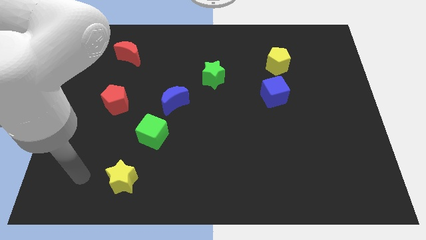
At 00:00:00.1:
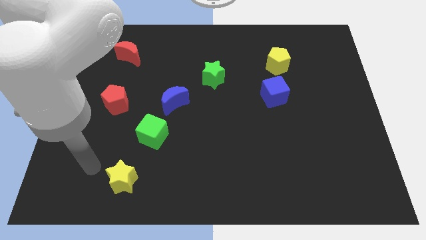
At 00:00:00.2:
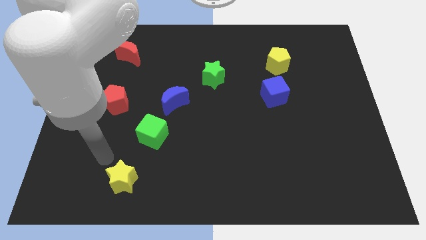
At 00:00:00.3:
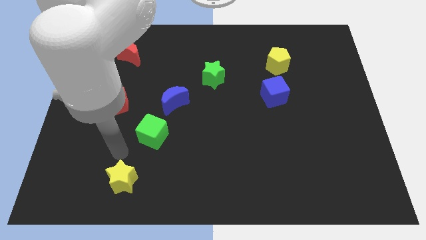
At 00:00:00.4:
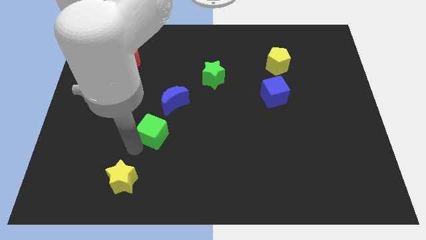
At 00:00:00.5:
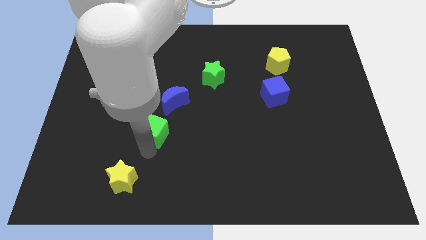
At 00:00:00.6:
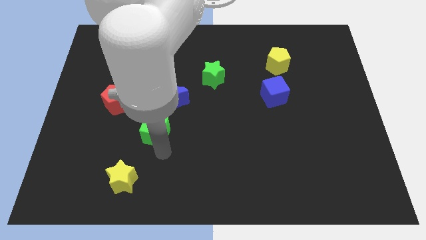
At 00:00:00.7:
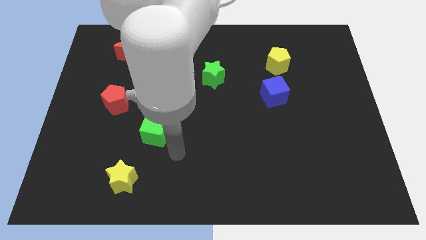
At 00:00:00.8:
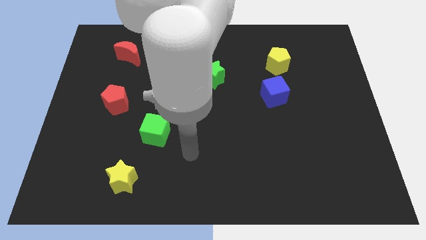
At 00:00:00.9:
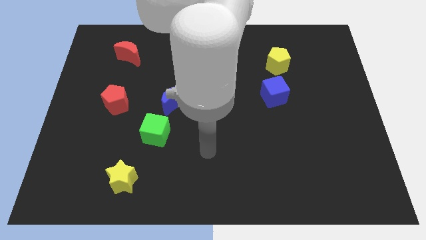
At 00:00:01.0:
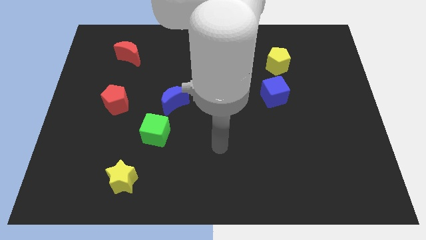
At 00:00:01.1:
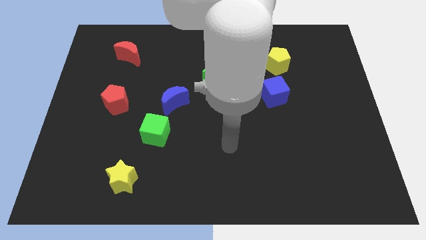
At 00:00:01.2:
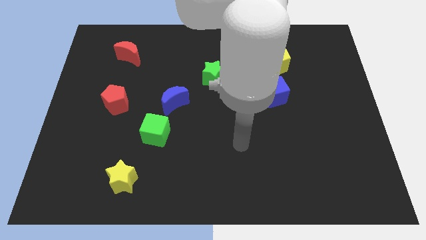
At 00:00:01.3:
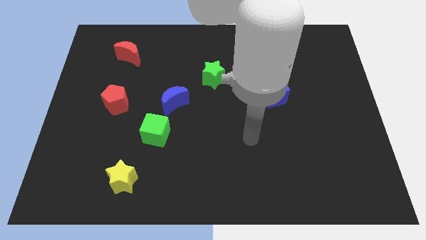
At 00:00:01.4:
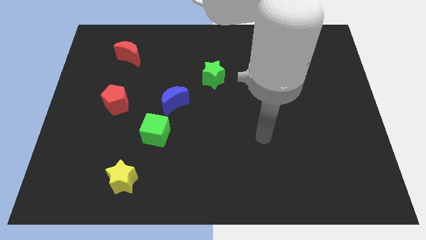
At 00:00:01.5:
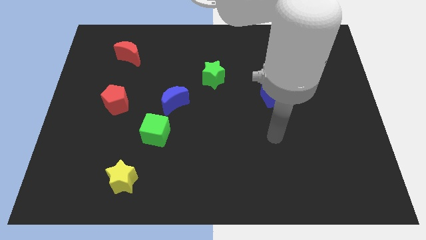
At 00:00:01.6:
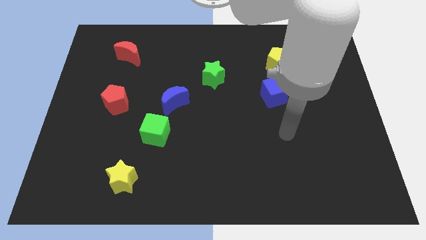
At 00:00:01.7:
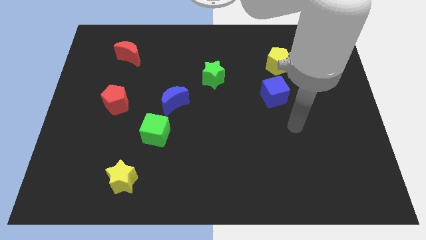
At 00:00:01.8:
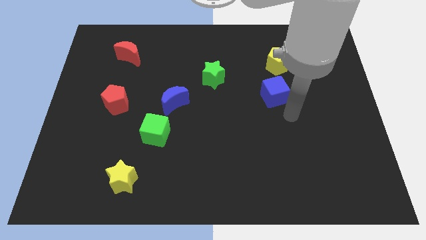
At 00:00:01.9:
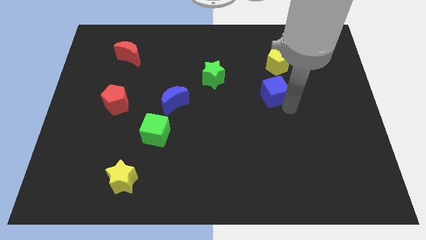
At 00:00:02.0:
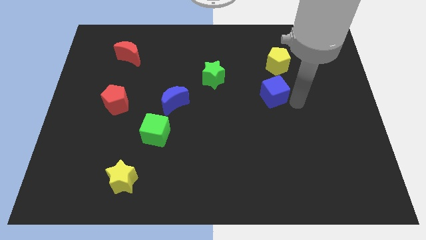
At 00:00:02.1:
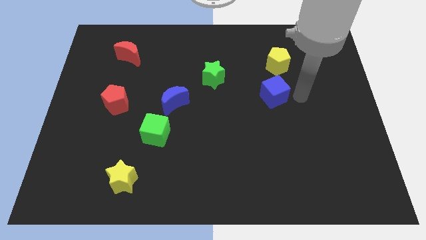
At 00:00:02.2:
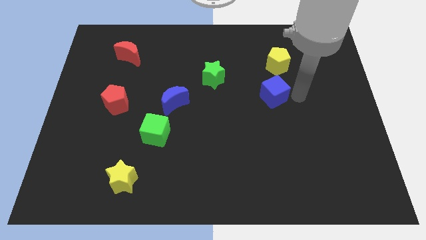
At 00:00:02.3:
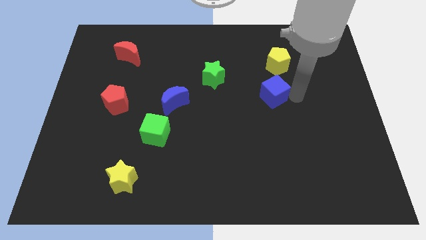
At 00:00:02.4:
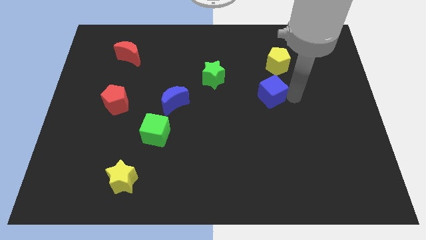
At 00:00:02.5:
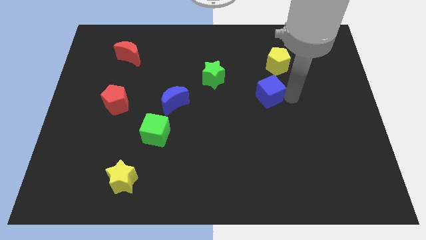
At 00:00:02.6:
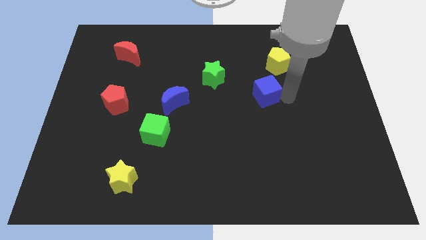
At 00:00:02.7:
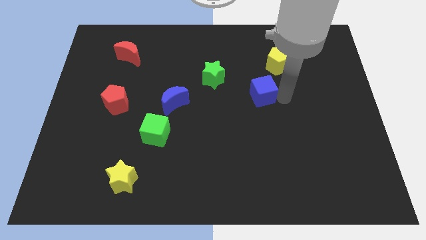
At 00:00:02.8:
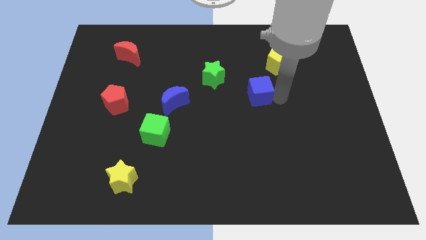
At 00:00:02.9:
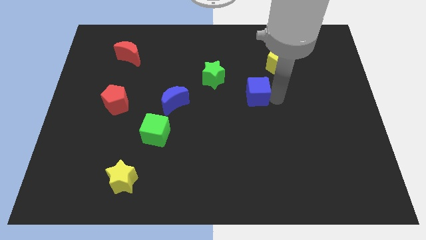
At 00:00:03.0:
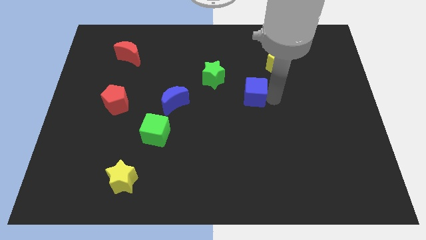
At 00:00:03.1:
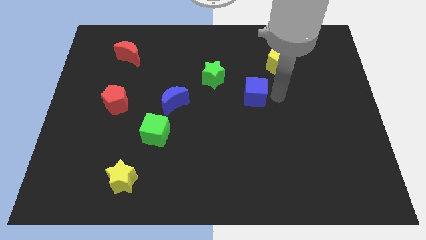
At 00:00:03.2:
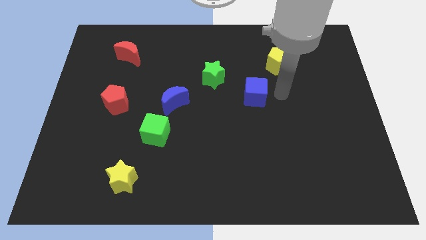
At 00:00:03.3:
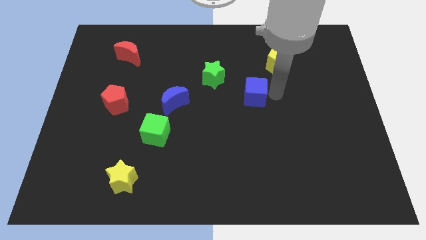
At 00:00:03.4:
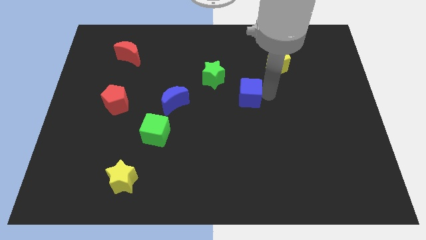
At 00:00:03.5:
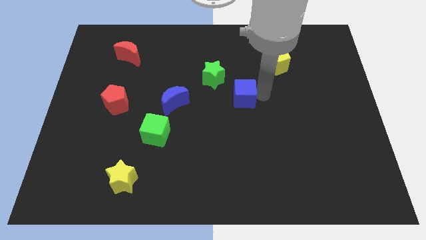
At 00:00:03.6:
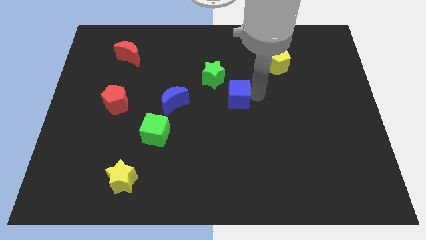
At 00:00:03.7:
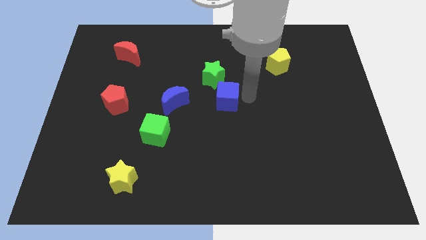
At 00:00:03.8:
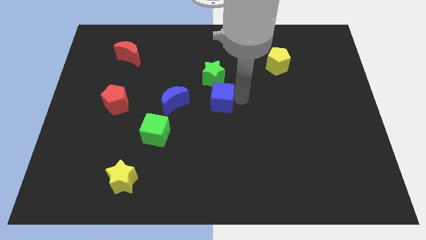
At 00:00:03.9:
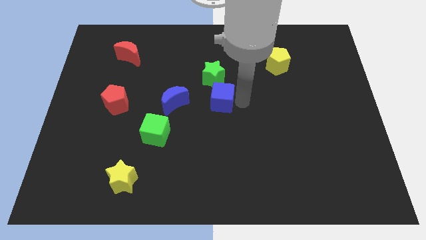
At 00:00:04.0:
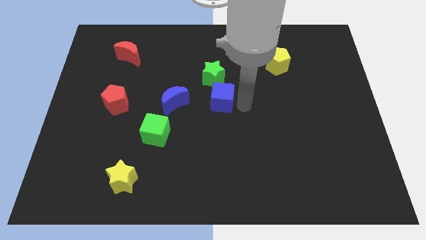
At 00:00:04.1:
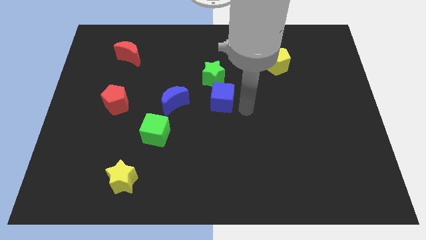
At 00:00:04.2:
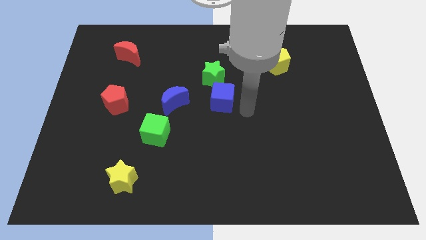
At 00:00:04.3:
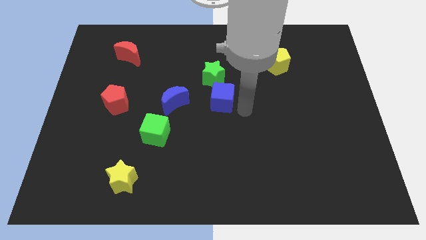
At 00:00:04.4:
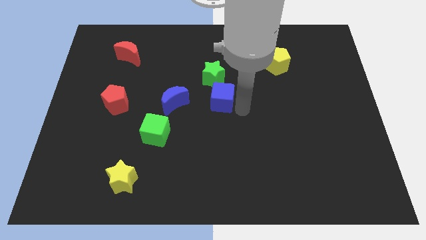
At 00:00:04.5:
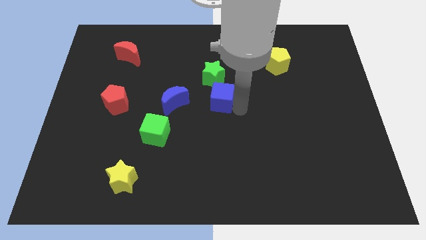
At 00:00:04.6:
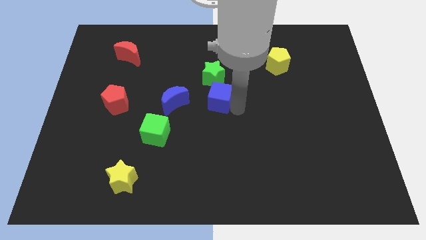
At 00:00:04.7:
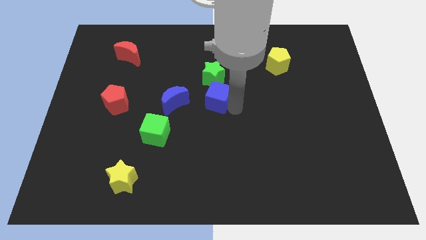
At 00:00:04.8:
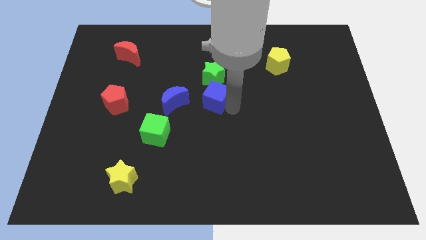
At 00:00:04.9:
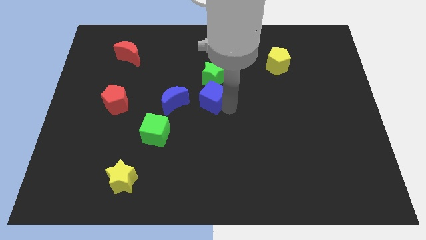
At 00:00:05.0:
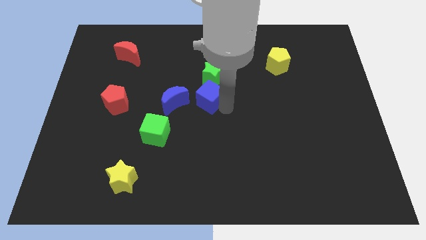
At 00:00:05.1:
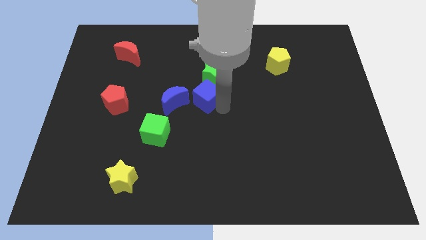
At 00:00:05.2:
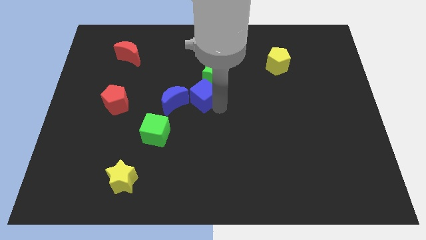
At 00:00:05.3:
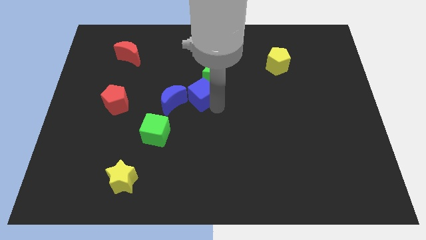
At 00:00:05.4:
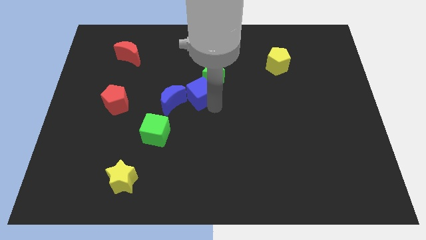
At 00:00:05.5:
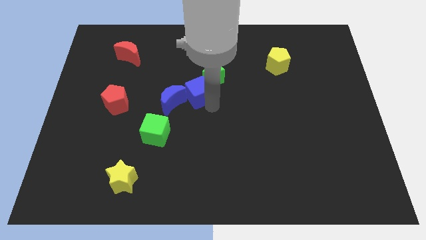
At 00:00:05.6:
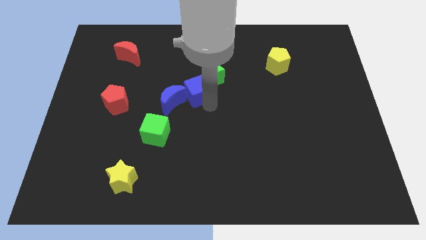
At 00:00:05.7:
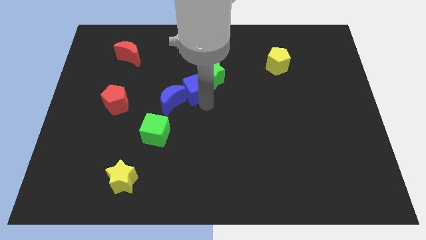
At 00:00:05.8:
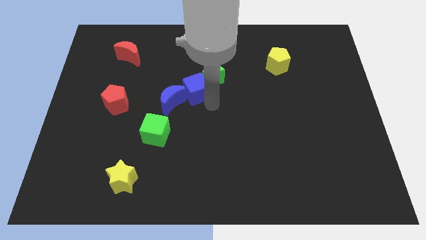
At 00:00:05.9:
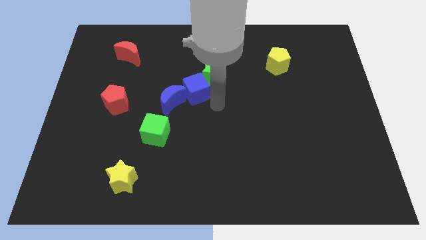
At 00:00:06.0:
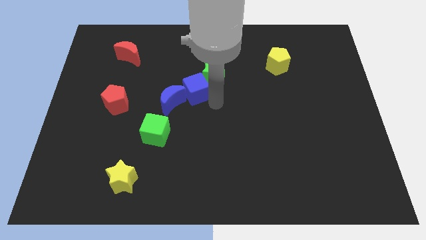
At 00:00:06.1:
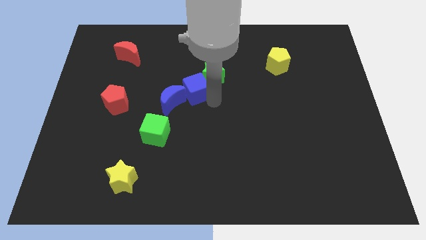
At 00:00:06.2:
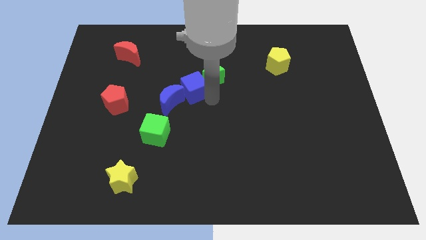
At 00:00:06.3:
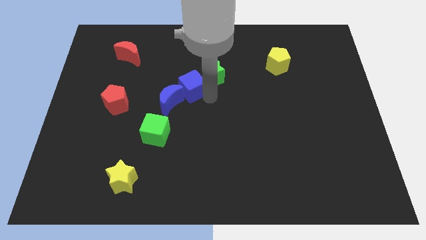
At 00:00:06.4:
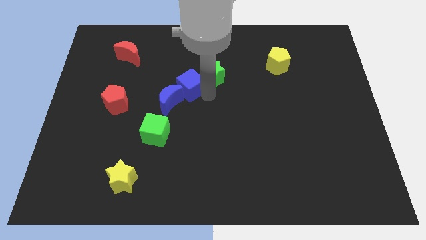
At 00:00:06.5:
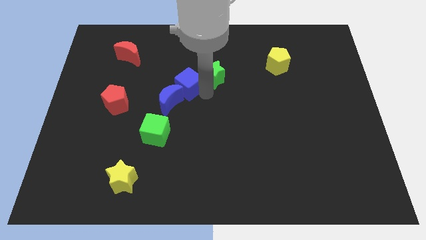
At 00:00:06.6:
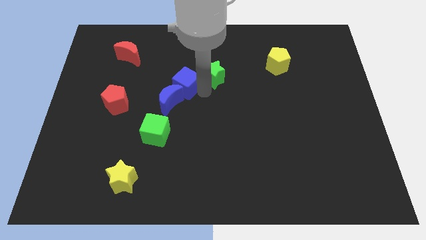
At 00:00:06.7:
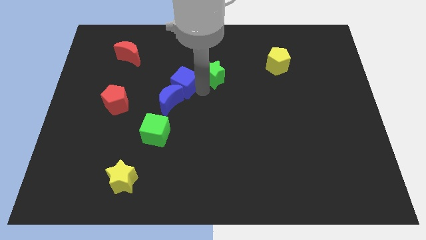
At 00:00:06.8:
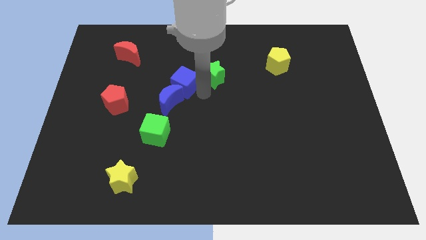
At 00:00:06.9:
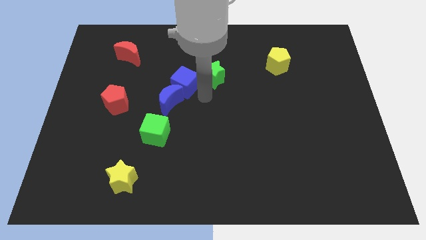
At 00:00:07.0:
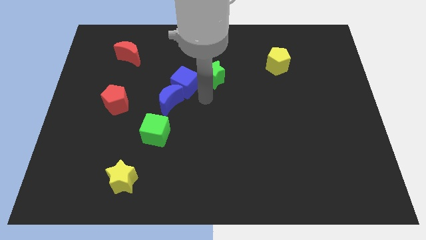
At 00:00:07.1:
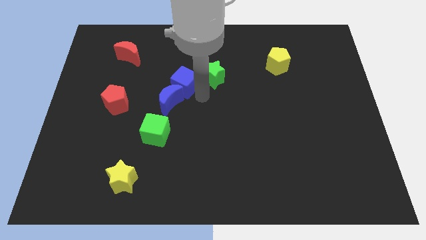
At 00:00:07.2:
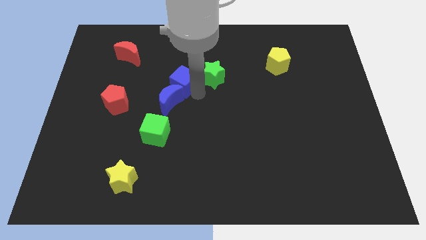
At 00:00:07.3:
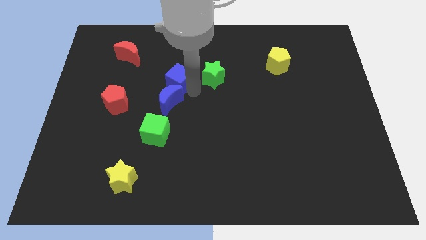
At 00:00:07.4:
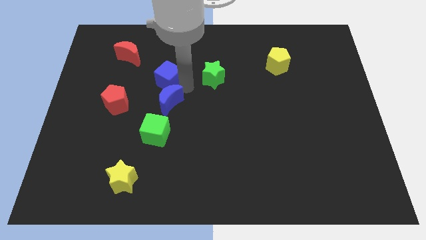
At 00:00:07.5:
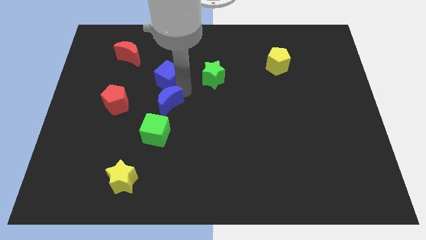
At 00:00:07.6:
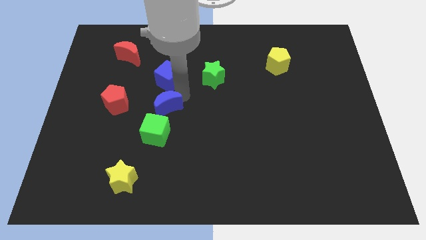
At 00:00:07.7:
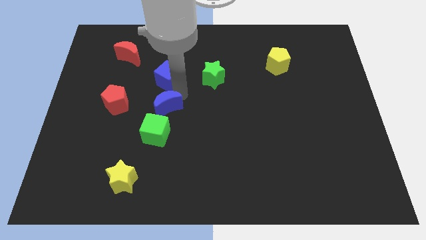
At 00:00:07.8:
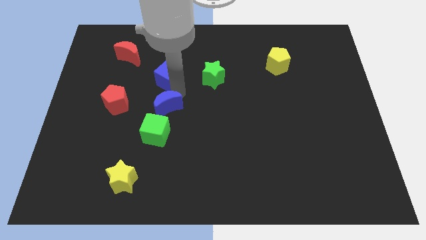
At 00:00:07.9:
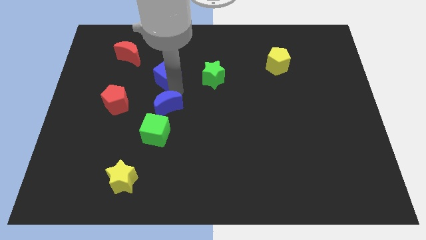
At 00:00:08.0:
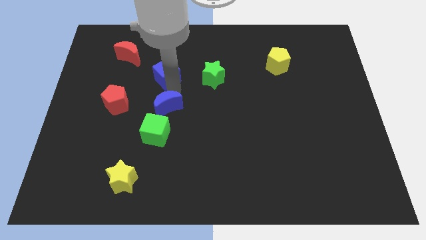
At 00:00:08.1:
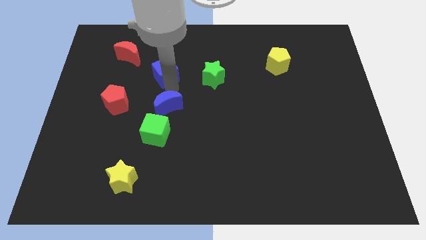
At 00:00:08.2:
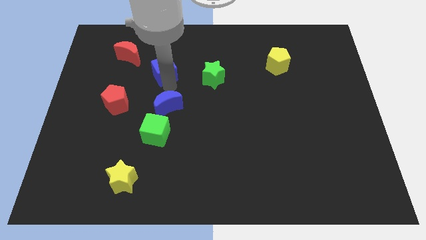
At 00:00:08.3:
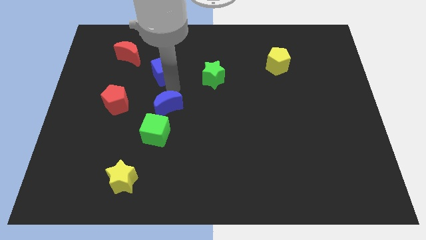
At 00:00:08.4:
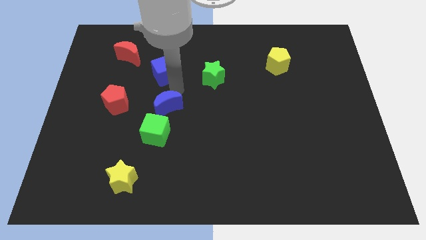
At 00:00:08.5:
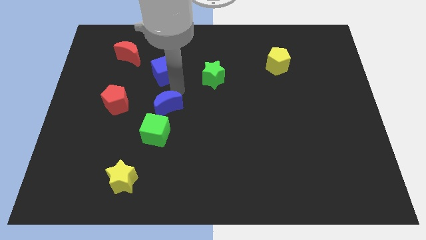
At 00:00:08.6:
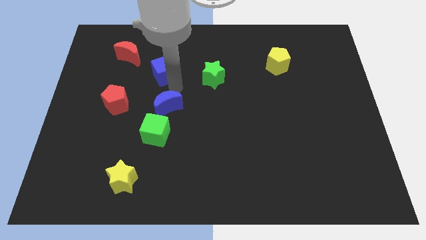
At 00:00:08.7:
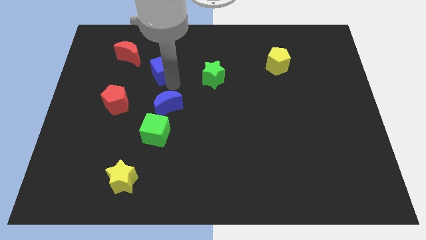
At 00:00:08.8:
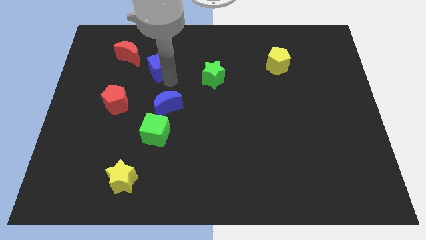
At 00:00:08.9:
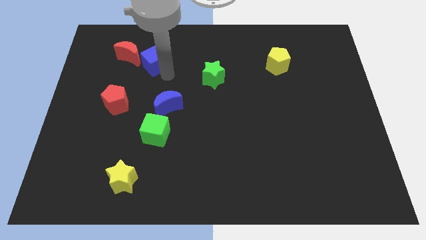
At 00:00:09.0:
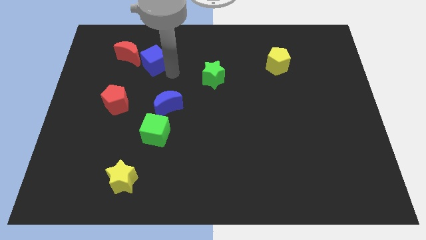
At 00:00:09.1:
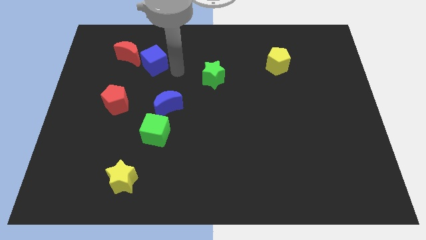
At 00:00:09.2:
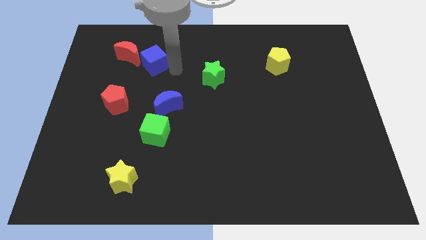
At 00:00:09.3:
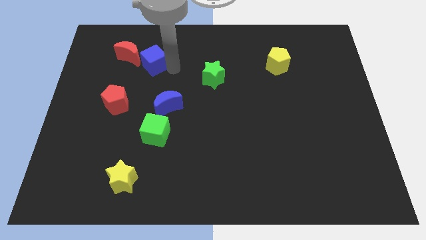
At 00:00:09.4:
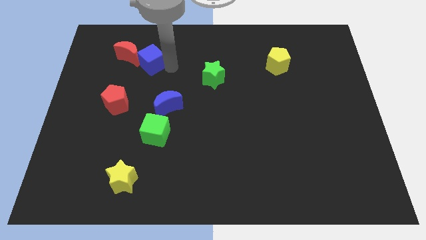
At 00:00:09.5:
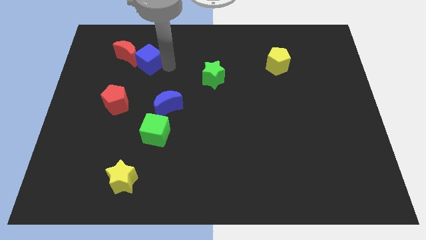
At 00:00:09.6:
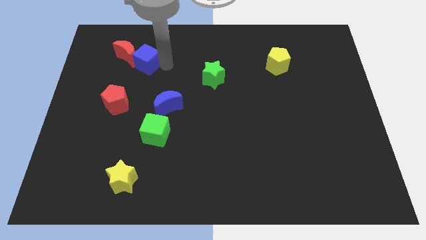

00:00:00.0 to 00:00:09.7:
push the blue cube to the red moon
